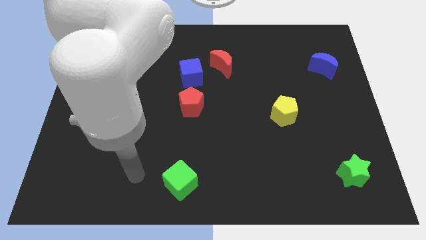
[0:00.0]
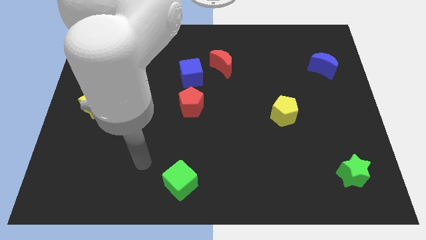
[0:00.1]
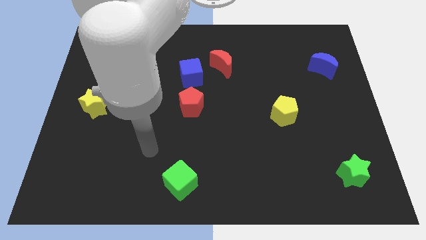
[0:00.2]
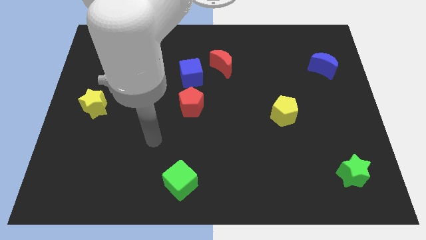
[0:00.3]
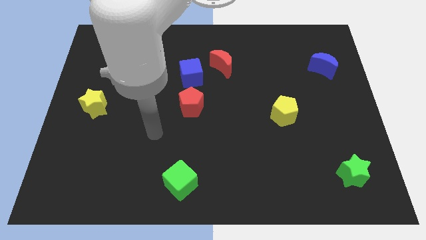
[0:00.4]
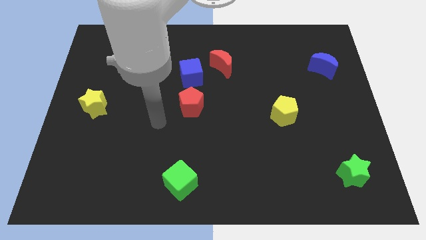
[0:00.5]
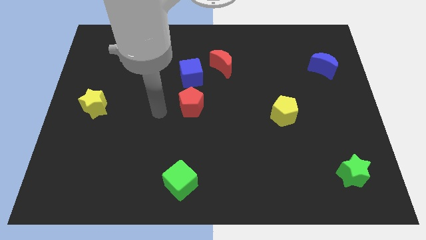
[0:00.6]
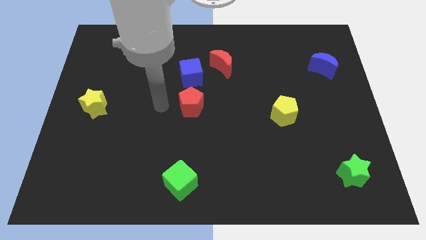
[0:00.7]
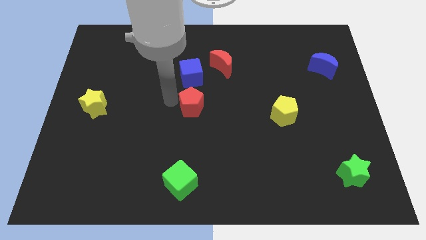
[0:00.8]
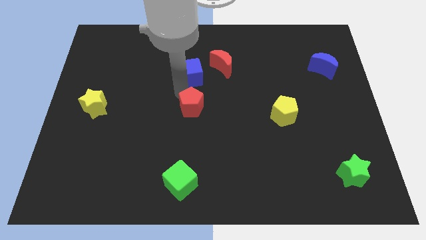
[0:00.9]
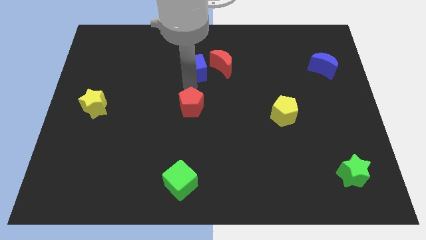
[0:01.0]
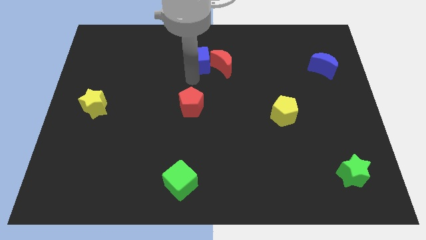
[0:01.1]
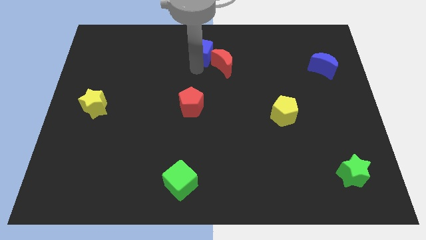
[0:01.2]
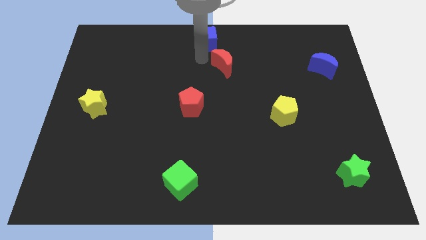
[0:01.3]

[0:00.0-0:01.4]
separate the red moon from the blue cube

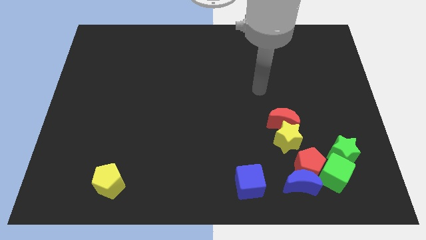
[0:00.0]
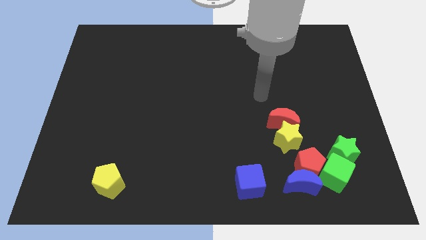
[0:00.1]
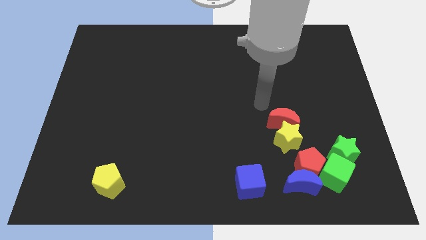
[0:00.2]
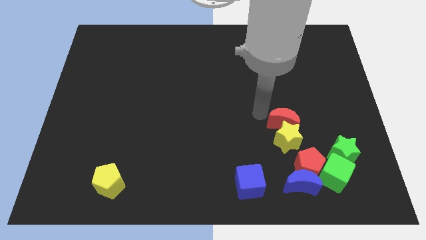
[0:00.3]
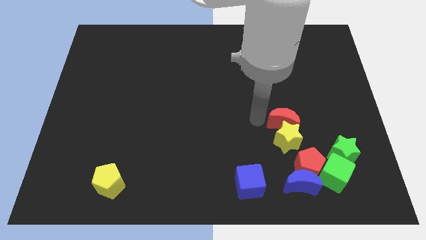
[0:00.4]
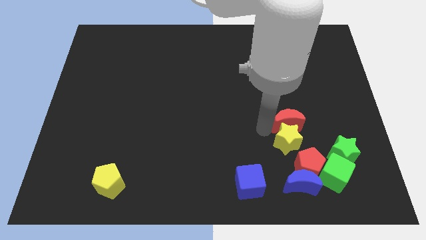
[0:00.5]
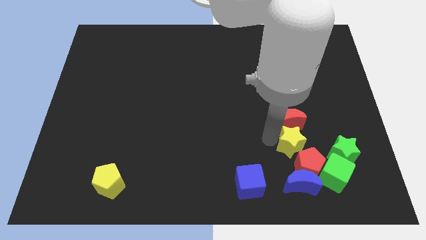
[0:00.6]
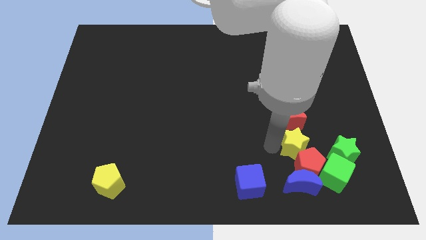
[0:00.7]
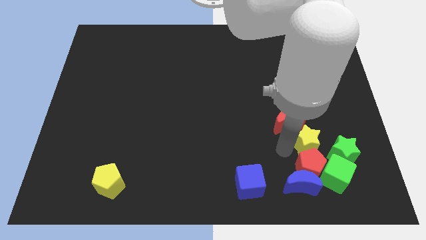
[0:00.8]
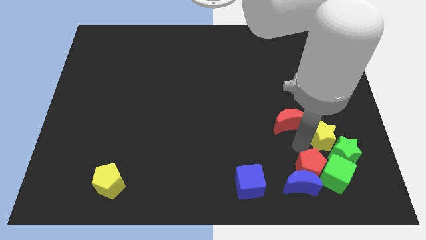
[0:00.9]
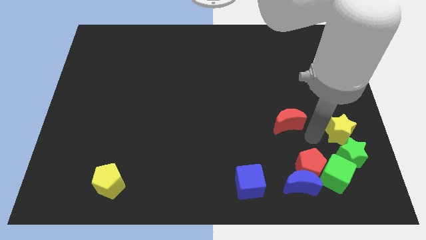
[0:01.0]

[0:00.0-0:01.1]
move the red moon away from the yellow star

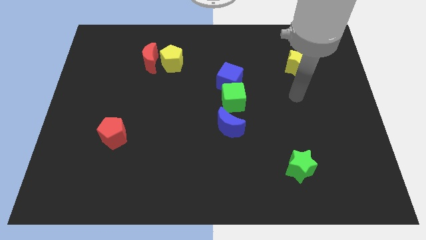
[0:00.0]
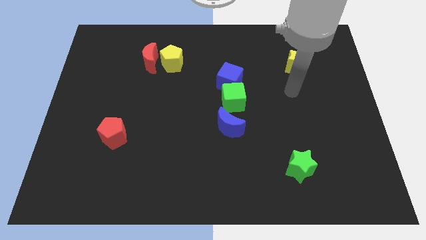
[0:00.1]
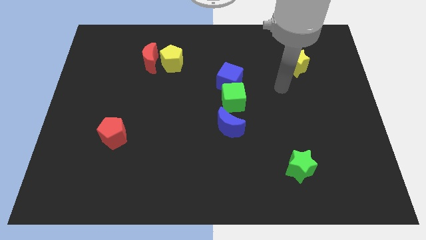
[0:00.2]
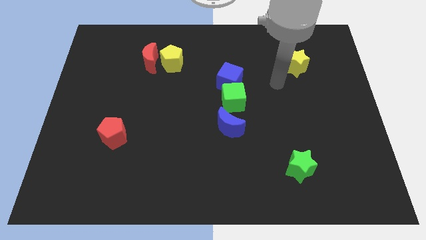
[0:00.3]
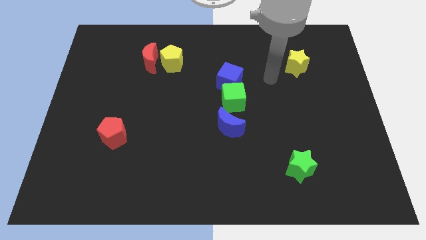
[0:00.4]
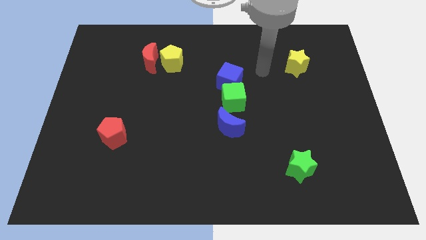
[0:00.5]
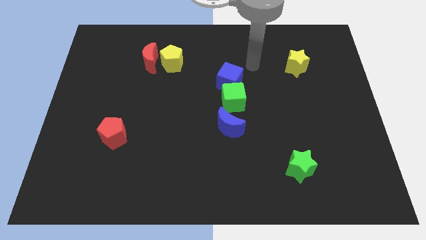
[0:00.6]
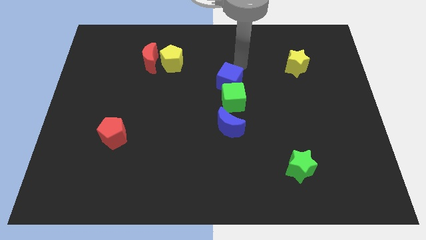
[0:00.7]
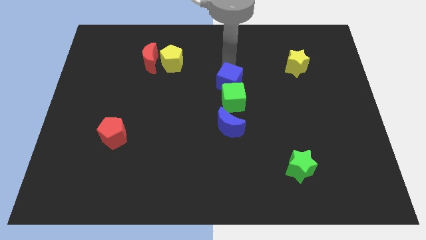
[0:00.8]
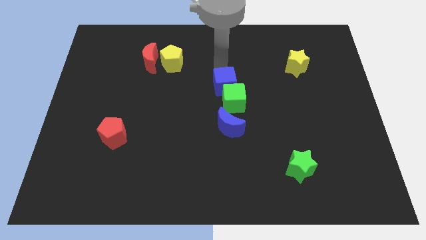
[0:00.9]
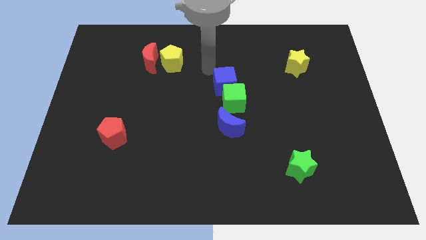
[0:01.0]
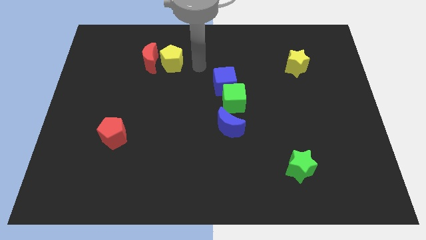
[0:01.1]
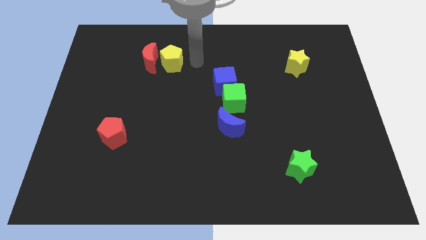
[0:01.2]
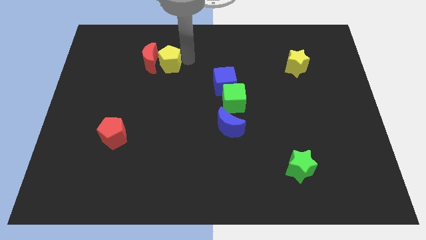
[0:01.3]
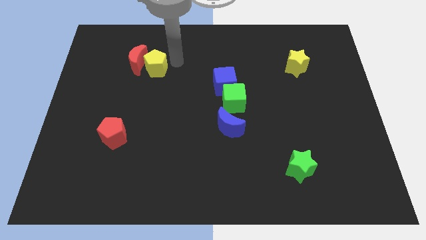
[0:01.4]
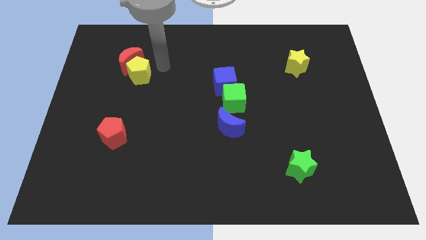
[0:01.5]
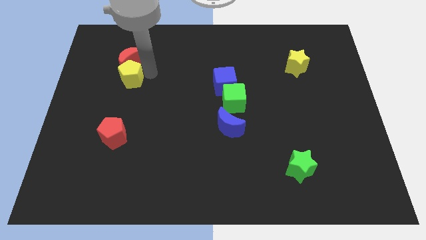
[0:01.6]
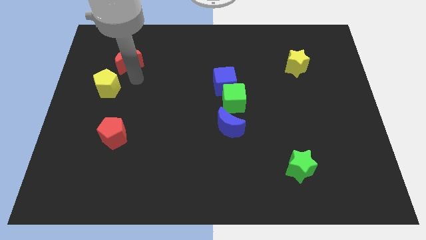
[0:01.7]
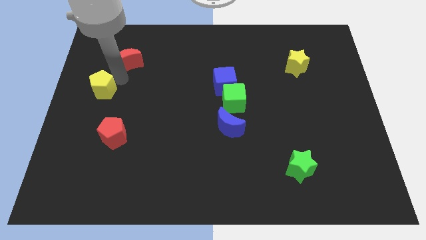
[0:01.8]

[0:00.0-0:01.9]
move the red moon away from the yellow pentagon

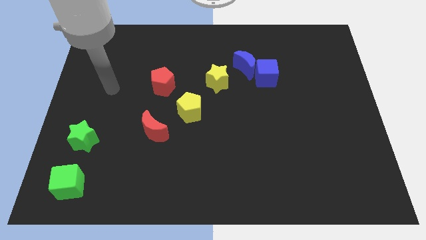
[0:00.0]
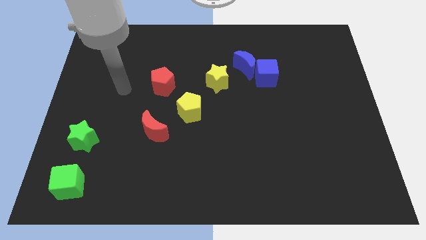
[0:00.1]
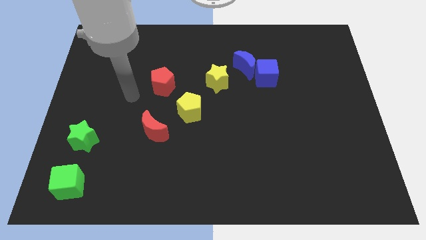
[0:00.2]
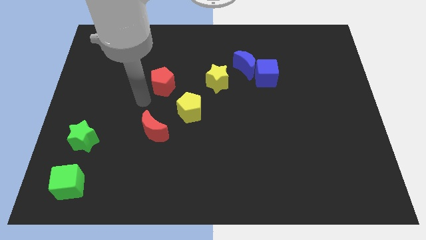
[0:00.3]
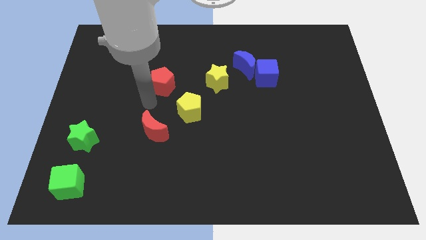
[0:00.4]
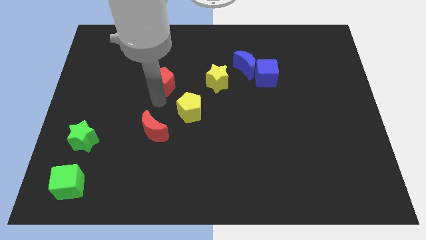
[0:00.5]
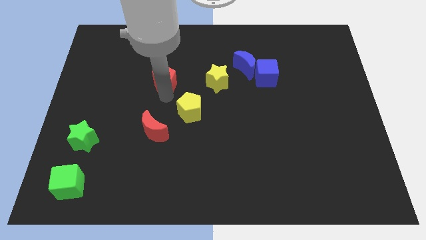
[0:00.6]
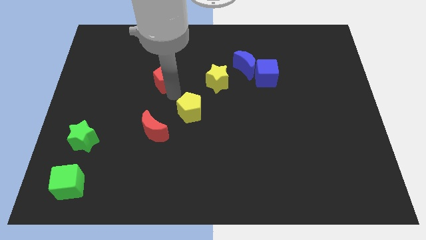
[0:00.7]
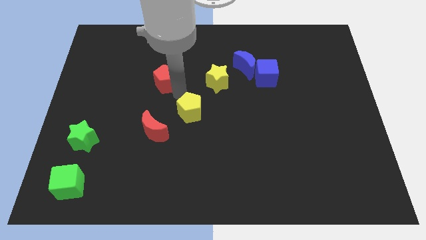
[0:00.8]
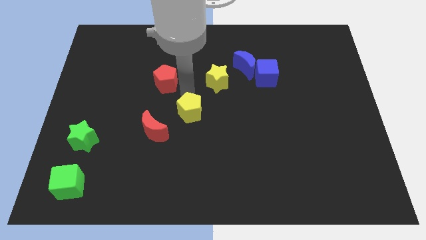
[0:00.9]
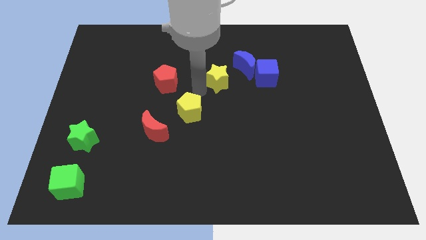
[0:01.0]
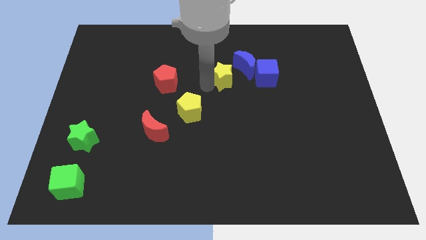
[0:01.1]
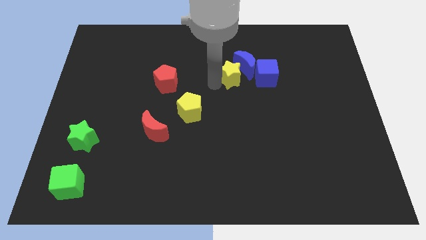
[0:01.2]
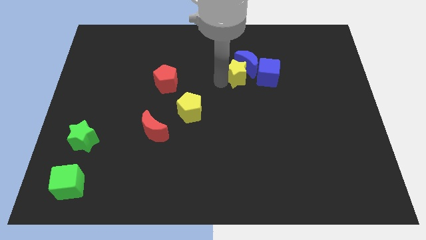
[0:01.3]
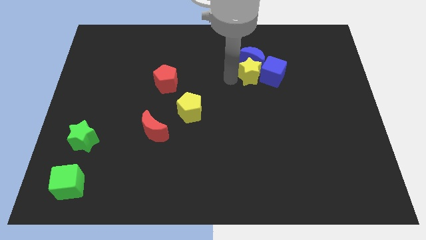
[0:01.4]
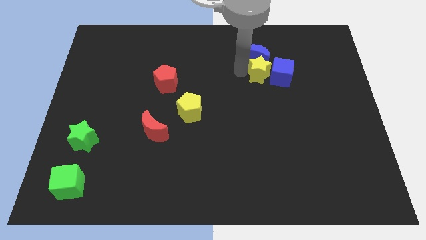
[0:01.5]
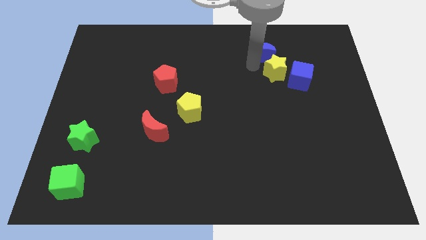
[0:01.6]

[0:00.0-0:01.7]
move the blue cube away from the blue moon

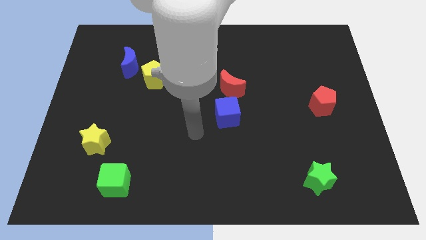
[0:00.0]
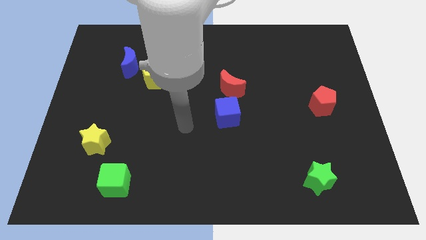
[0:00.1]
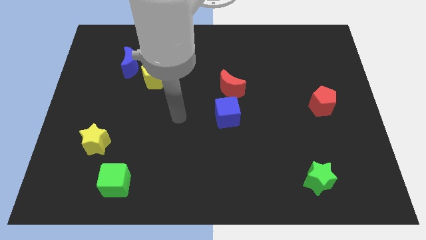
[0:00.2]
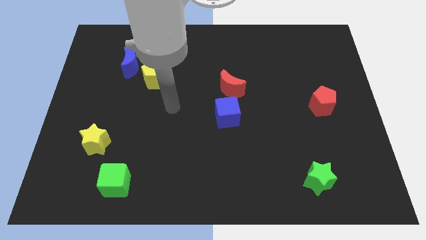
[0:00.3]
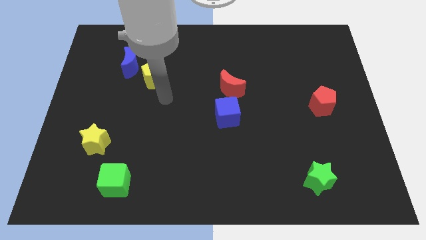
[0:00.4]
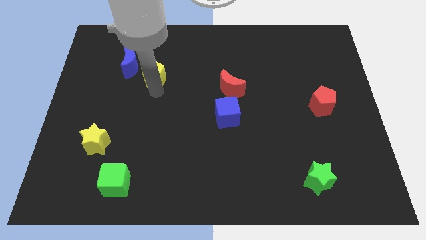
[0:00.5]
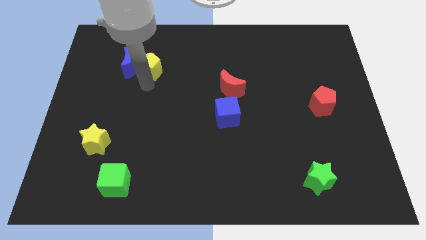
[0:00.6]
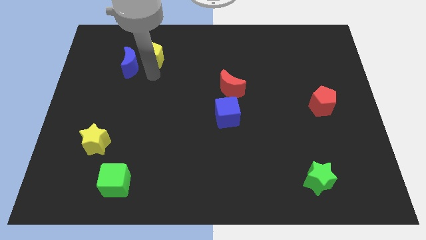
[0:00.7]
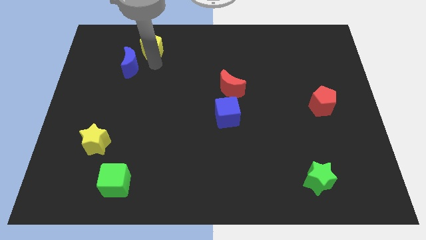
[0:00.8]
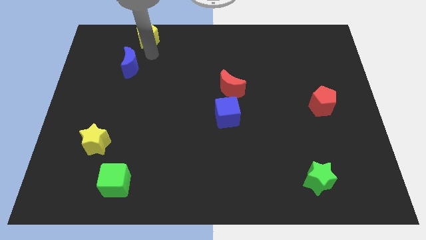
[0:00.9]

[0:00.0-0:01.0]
move the blue moon away from the yellow pentagon

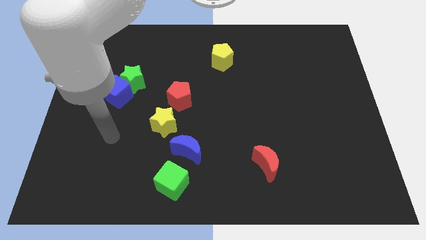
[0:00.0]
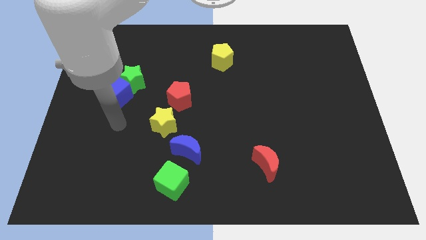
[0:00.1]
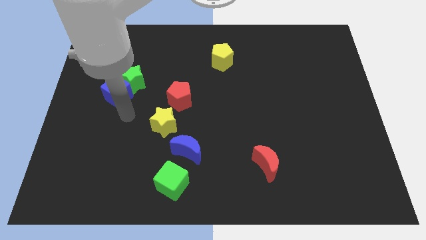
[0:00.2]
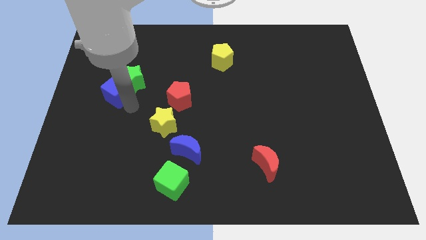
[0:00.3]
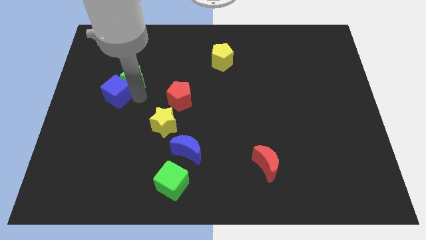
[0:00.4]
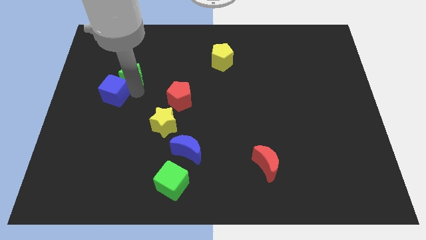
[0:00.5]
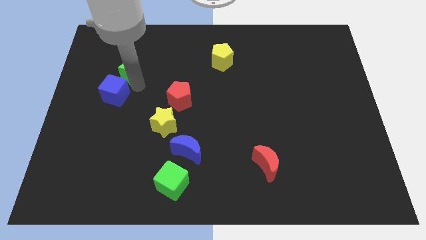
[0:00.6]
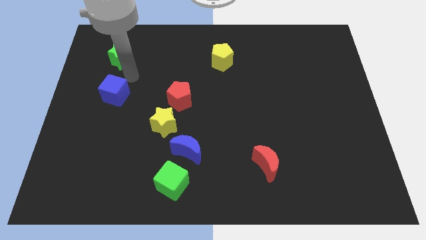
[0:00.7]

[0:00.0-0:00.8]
separate the blue cube from the green star

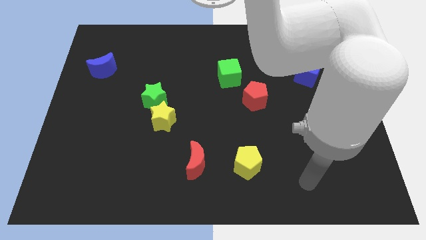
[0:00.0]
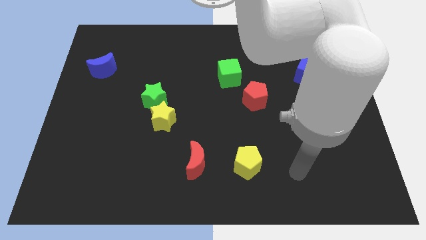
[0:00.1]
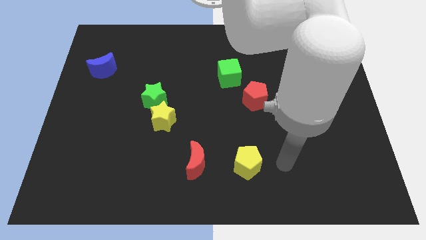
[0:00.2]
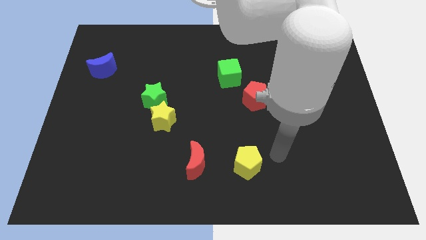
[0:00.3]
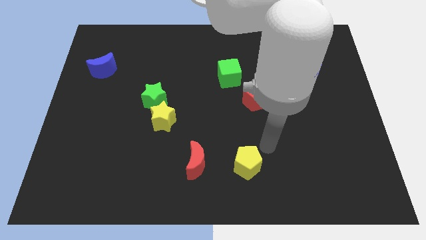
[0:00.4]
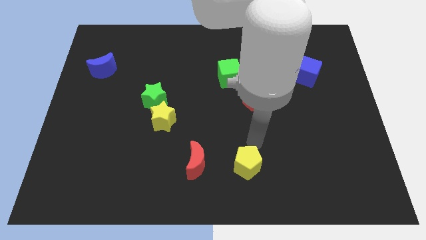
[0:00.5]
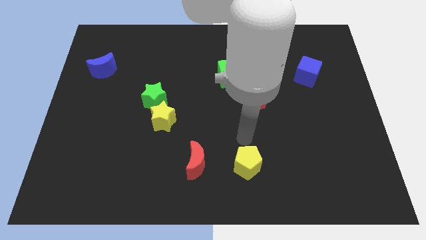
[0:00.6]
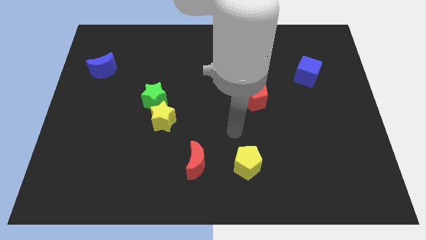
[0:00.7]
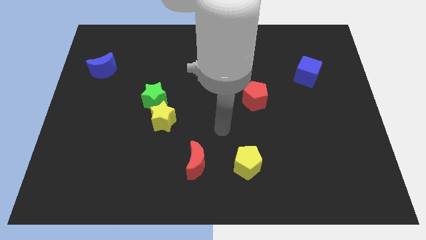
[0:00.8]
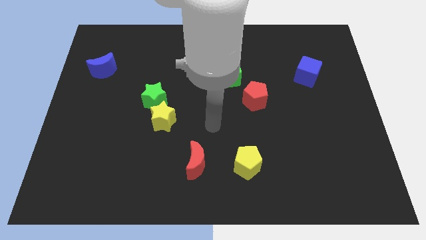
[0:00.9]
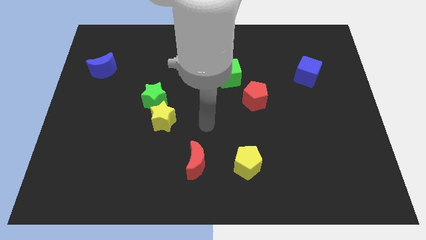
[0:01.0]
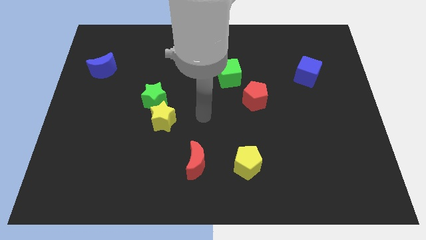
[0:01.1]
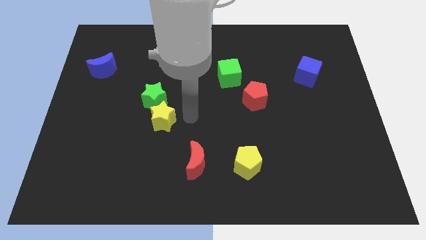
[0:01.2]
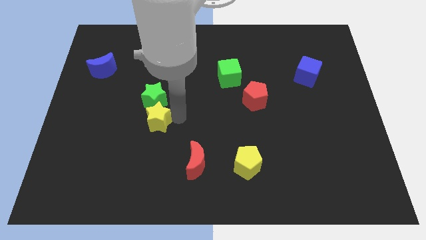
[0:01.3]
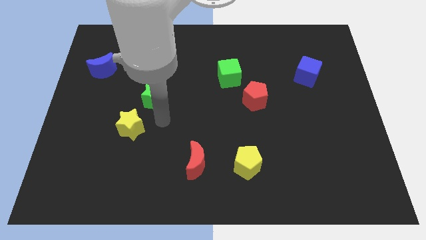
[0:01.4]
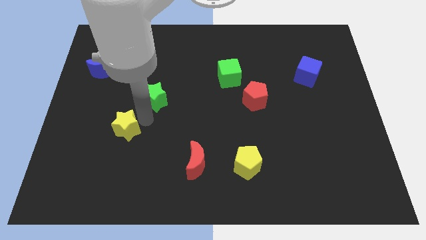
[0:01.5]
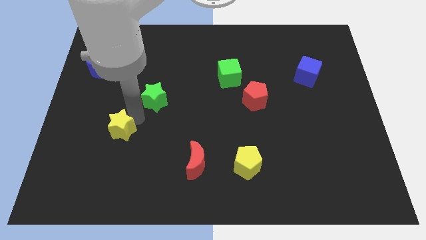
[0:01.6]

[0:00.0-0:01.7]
separate the green star from the yellow star
